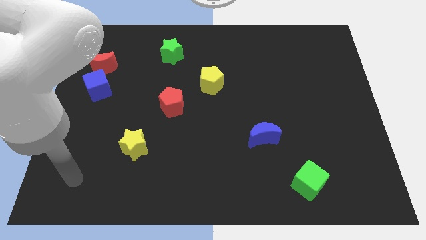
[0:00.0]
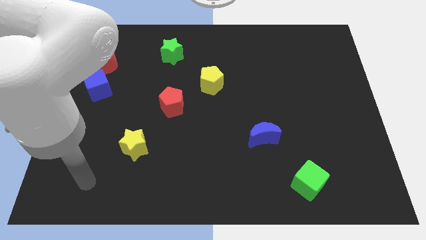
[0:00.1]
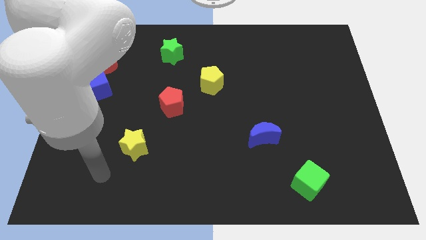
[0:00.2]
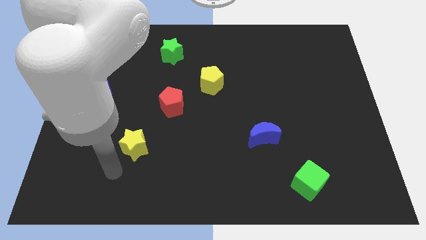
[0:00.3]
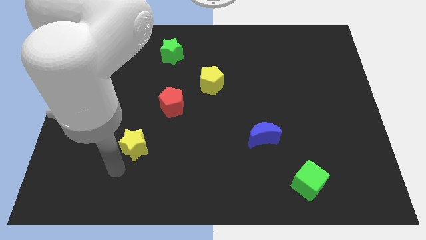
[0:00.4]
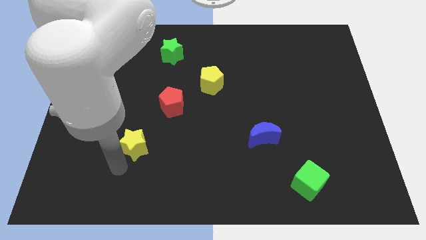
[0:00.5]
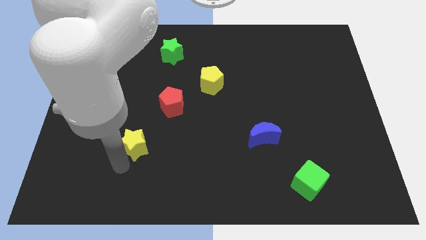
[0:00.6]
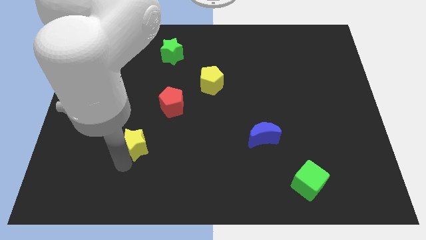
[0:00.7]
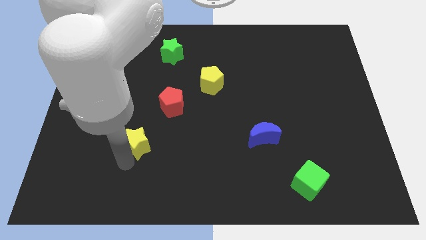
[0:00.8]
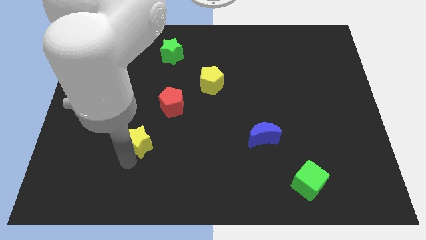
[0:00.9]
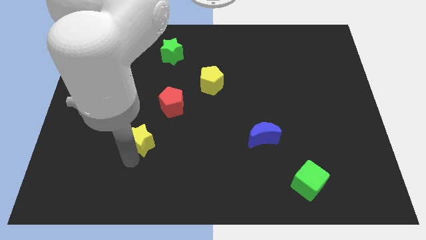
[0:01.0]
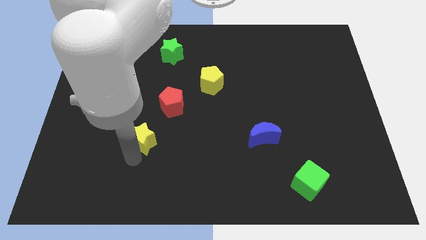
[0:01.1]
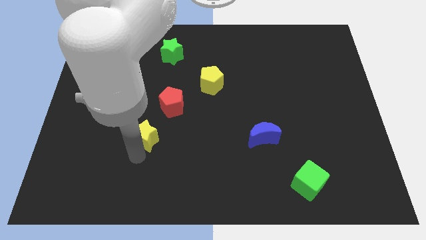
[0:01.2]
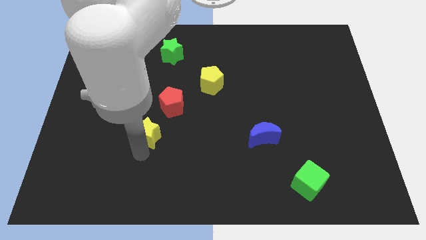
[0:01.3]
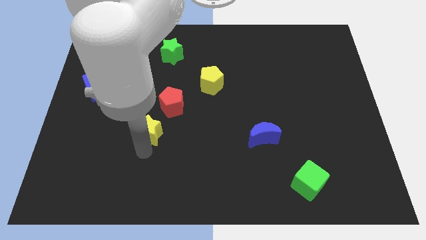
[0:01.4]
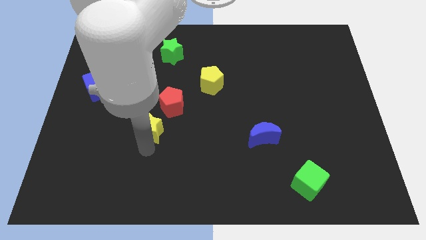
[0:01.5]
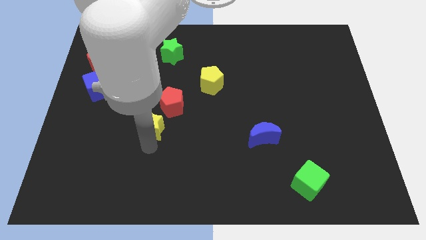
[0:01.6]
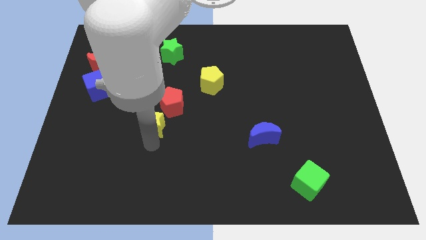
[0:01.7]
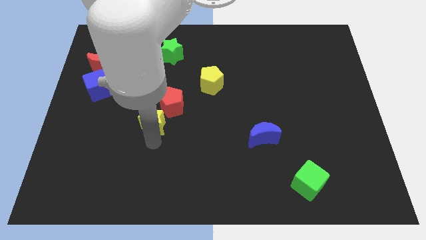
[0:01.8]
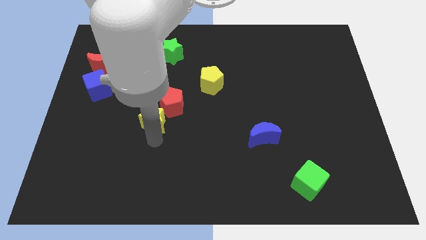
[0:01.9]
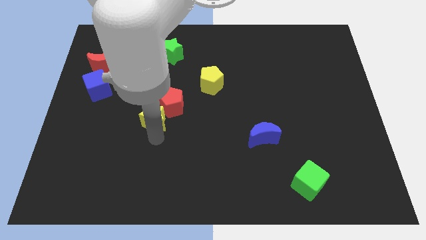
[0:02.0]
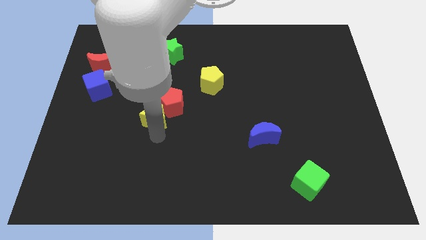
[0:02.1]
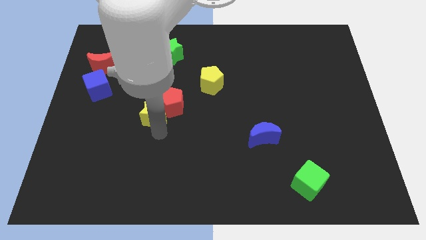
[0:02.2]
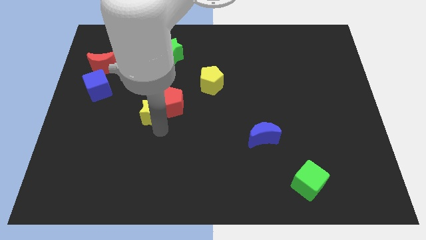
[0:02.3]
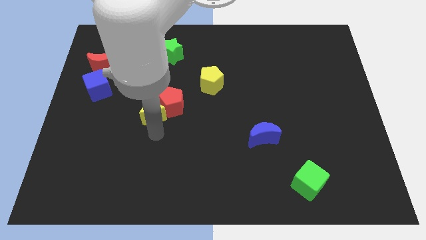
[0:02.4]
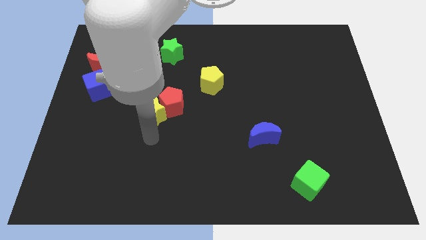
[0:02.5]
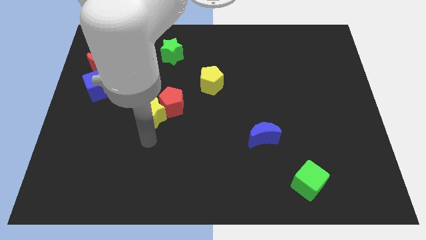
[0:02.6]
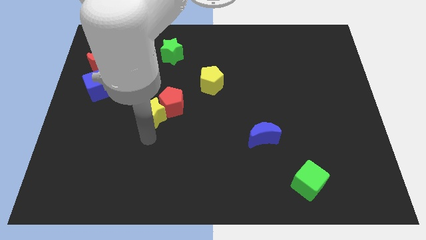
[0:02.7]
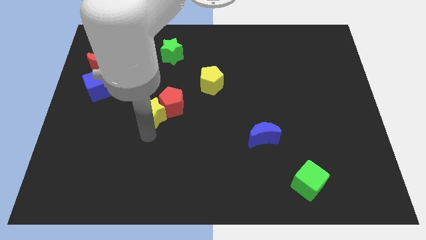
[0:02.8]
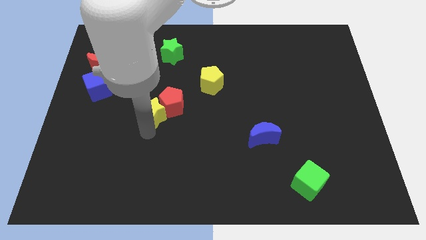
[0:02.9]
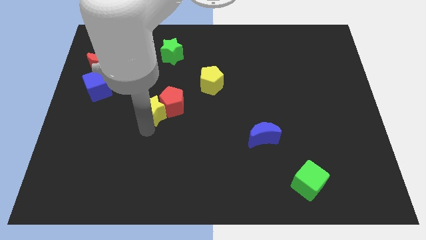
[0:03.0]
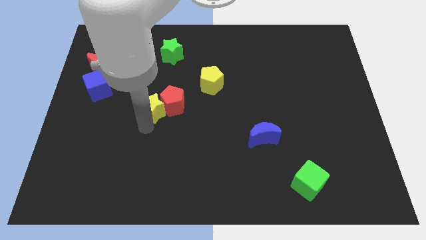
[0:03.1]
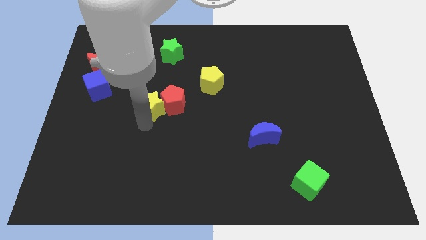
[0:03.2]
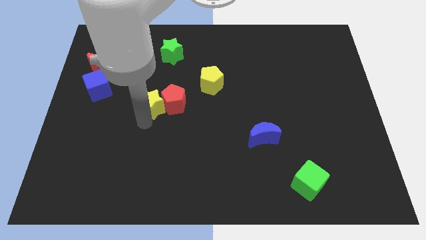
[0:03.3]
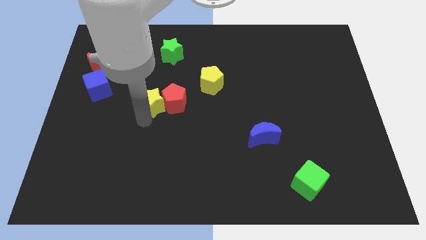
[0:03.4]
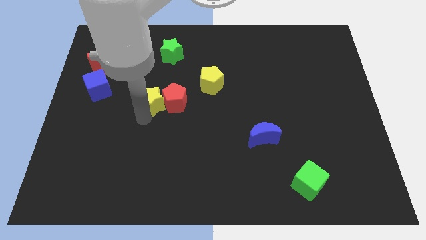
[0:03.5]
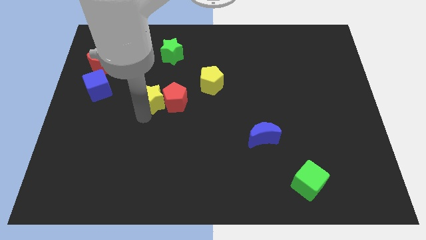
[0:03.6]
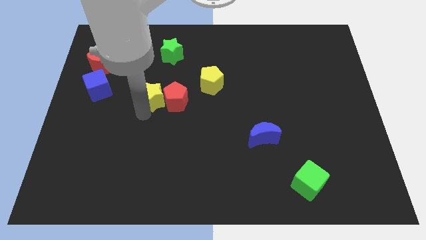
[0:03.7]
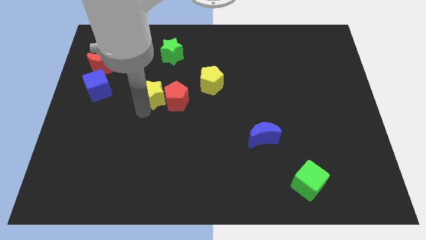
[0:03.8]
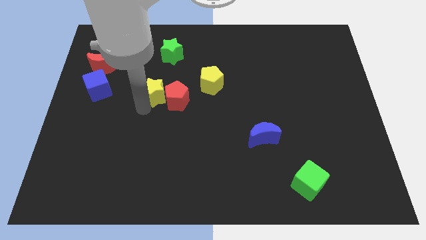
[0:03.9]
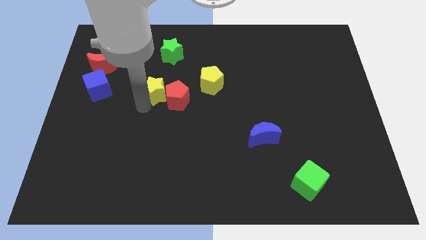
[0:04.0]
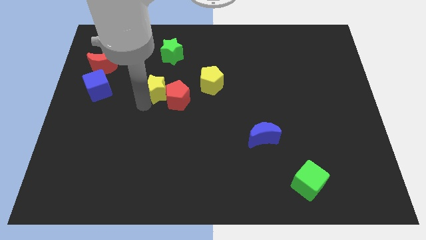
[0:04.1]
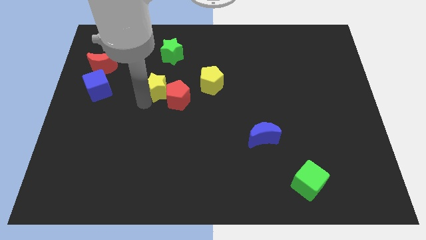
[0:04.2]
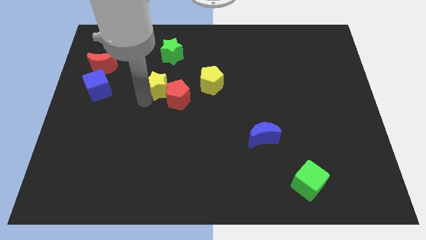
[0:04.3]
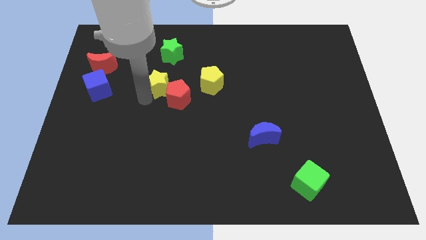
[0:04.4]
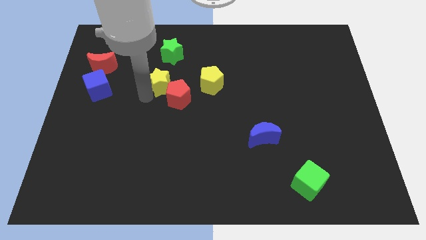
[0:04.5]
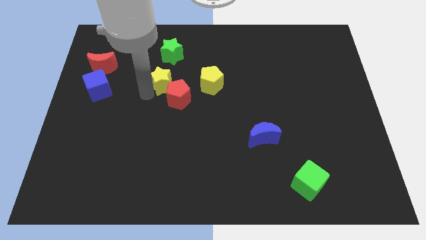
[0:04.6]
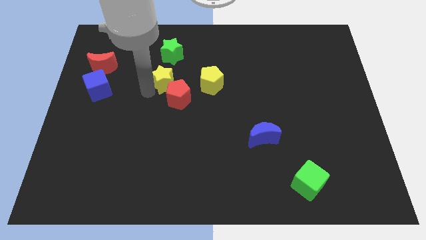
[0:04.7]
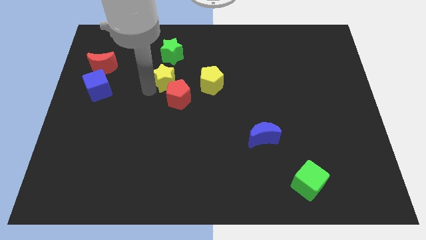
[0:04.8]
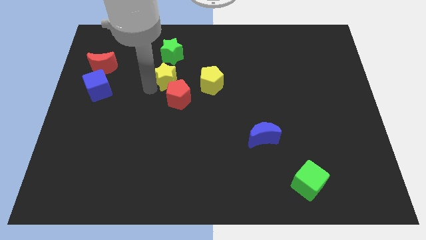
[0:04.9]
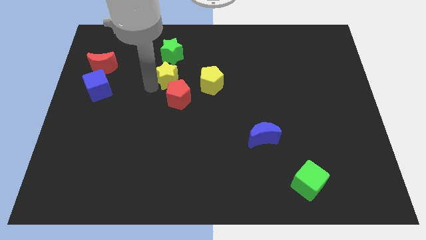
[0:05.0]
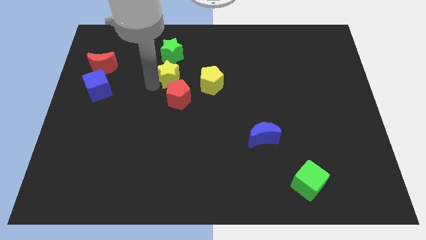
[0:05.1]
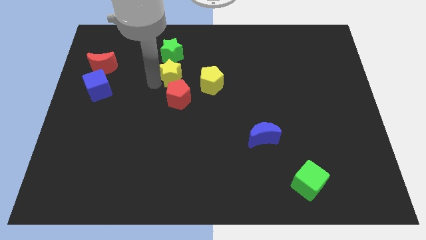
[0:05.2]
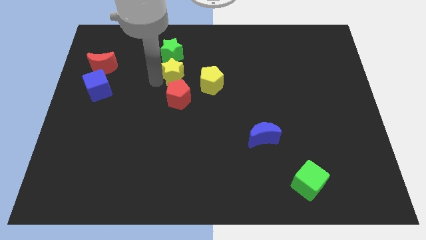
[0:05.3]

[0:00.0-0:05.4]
slide the yellow star diagonally down and to the right of the green star

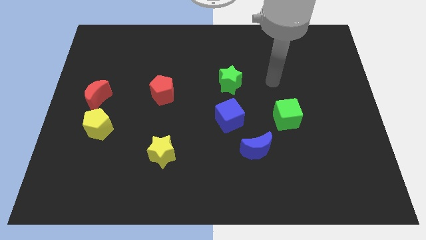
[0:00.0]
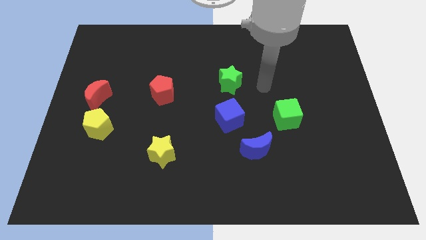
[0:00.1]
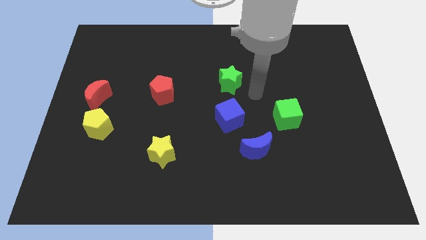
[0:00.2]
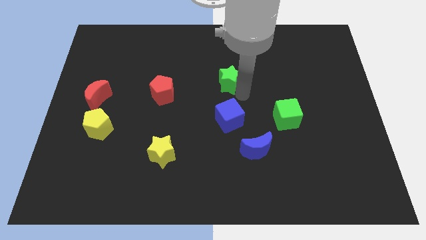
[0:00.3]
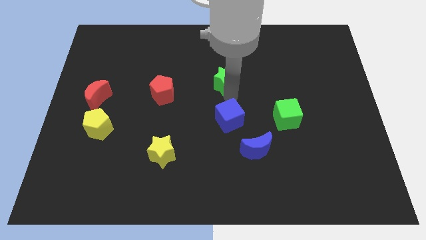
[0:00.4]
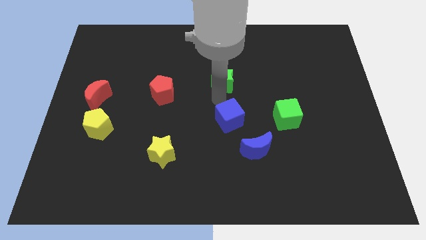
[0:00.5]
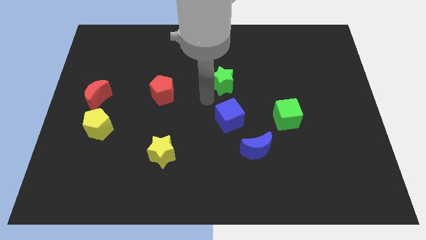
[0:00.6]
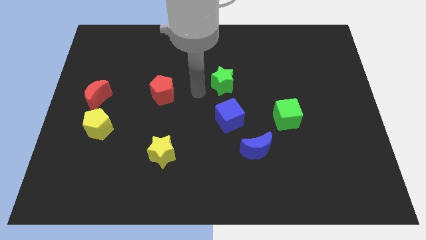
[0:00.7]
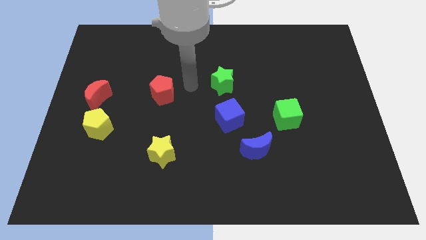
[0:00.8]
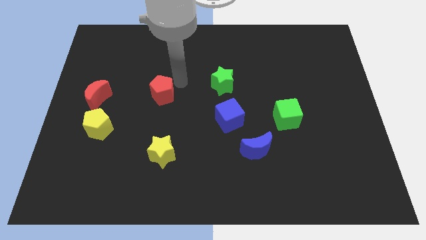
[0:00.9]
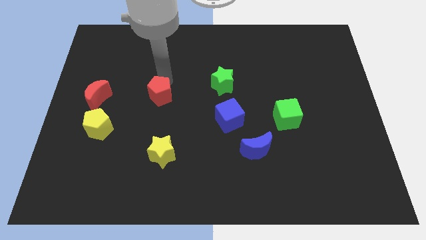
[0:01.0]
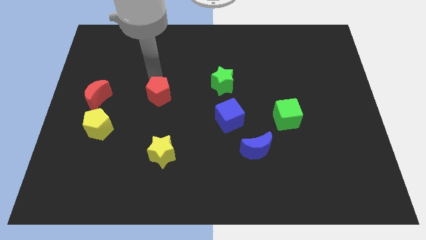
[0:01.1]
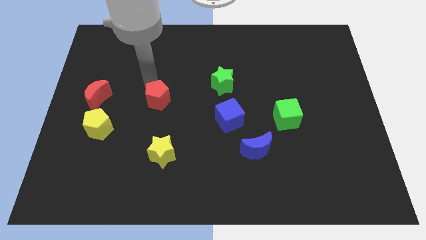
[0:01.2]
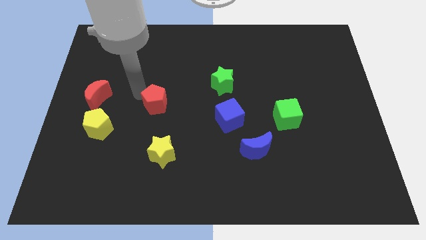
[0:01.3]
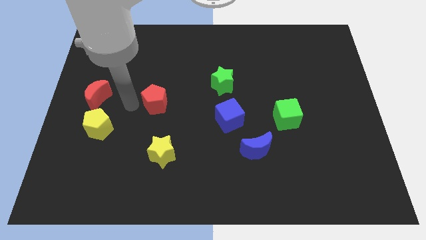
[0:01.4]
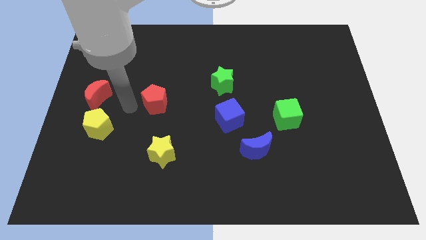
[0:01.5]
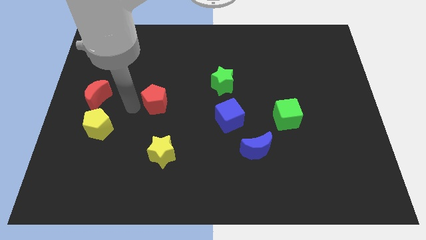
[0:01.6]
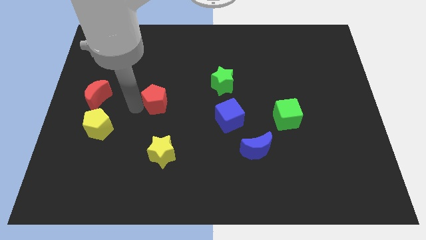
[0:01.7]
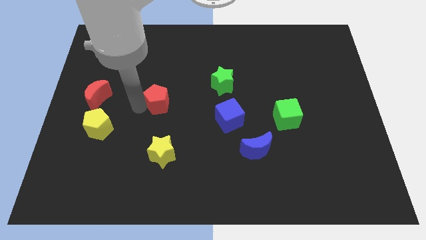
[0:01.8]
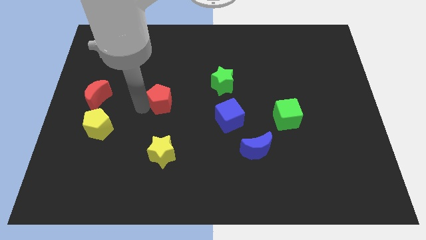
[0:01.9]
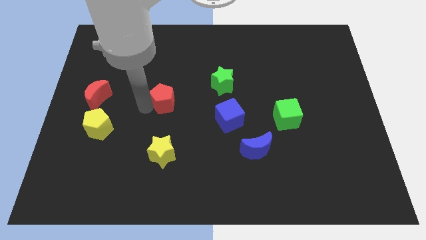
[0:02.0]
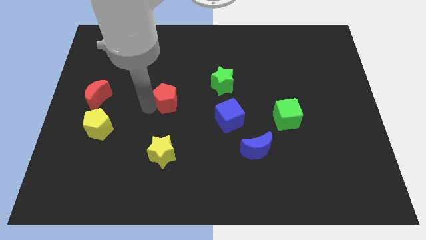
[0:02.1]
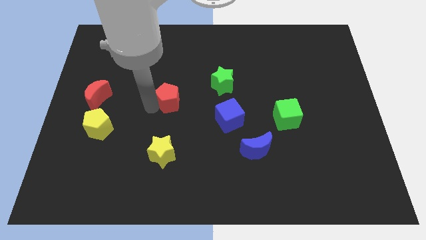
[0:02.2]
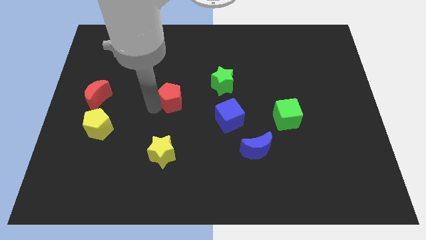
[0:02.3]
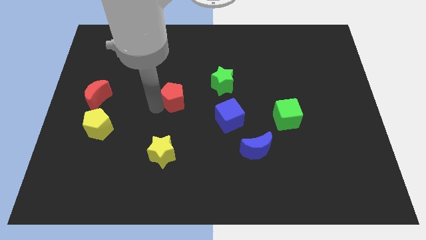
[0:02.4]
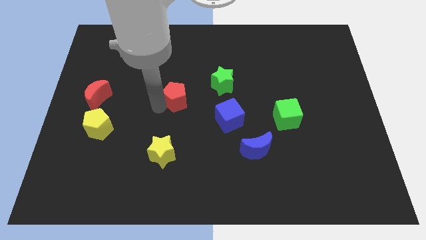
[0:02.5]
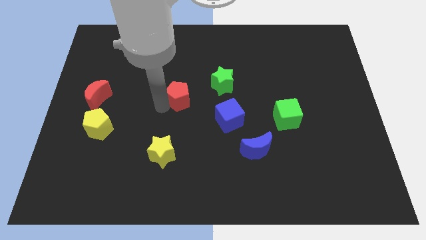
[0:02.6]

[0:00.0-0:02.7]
slide the red pentagon to the bottom left side of the green star

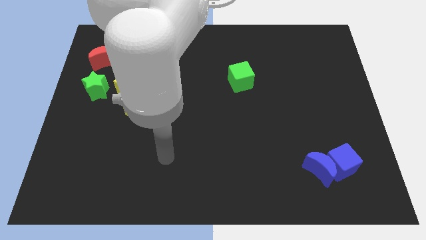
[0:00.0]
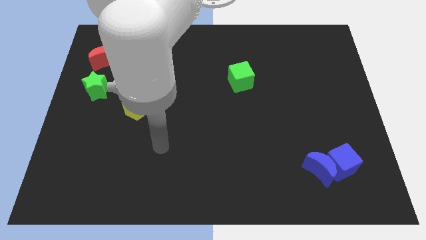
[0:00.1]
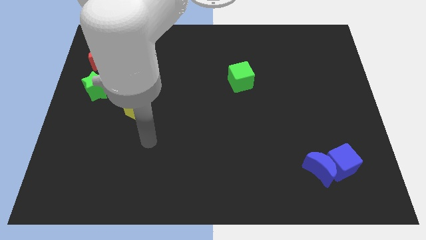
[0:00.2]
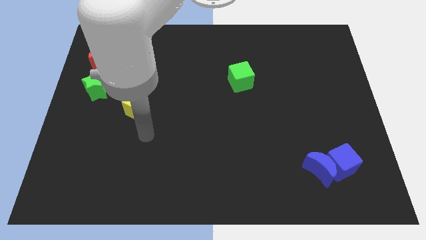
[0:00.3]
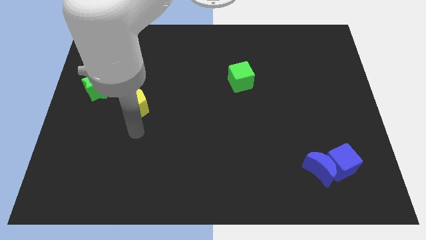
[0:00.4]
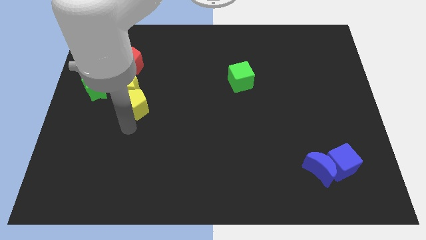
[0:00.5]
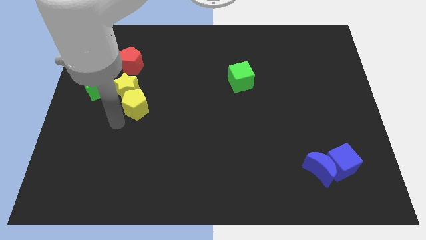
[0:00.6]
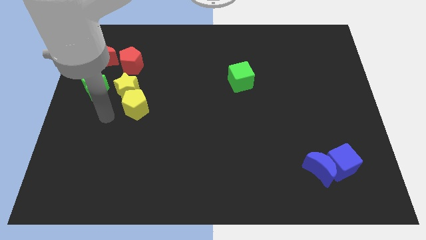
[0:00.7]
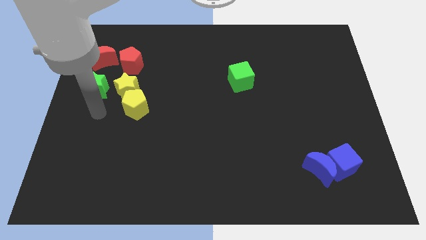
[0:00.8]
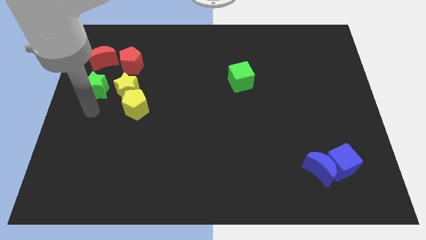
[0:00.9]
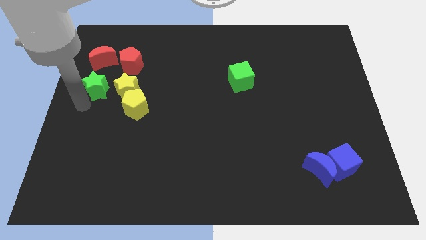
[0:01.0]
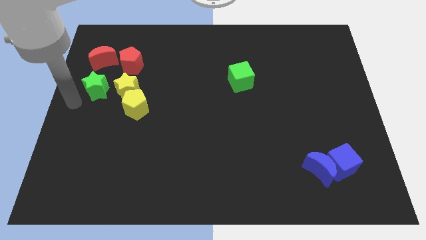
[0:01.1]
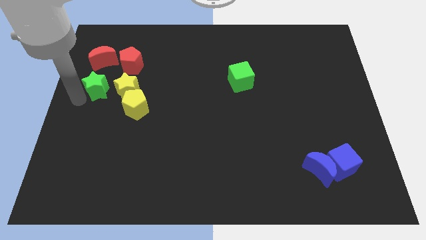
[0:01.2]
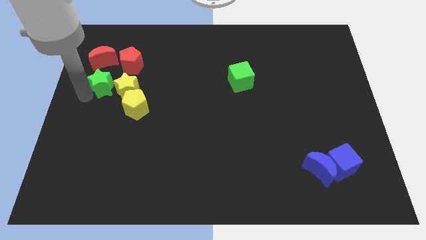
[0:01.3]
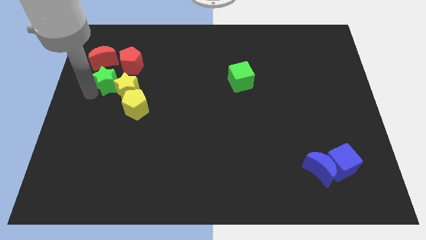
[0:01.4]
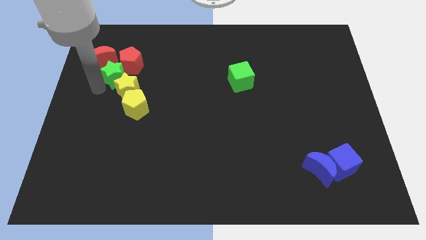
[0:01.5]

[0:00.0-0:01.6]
put the green star to the top side of the yellow star
